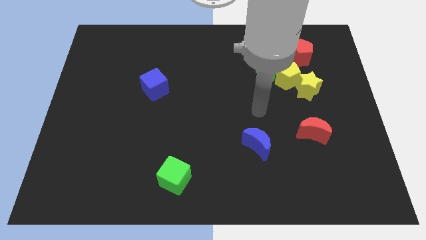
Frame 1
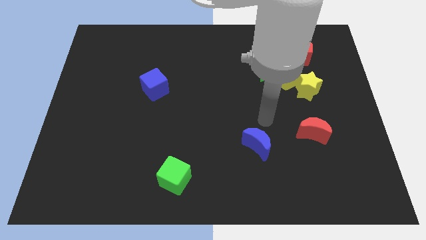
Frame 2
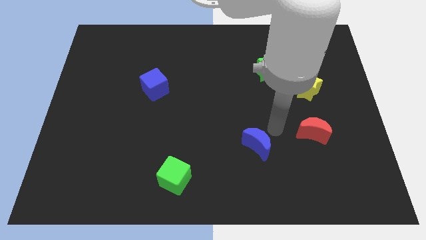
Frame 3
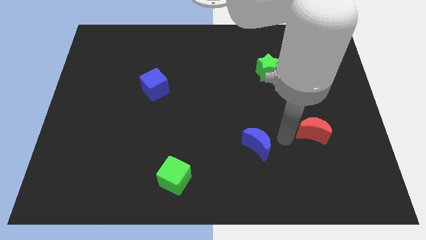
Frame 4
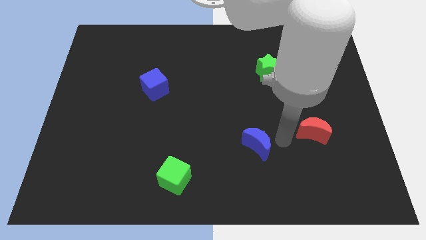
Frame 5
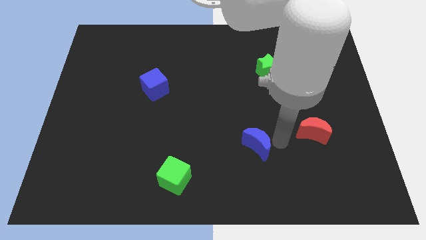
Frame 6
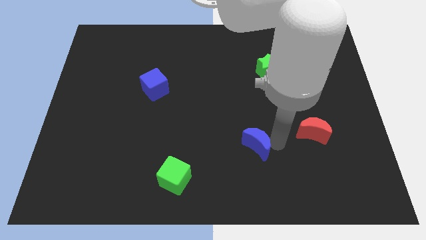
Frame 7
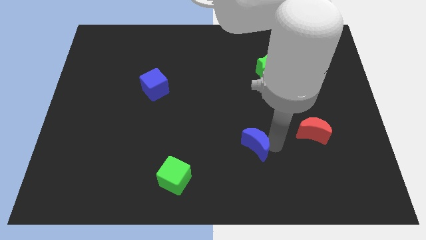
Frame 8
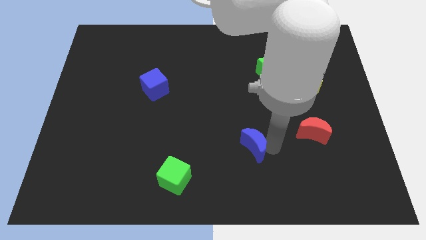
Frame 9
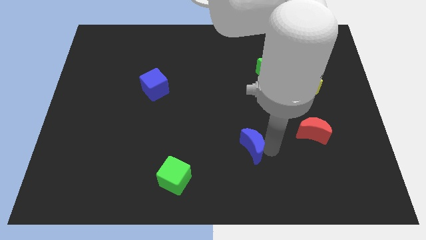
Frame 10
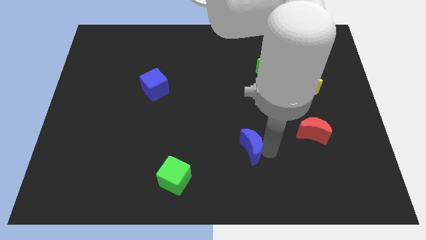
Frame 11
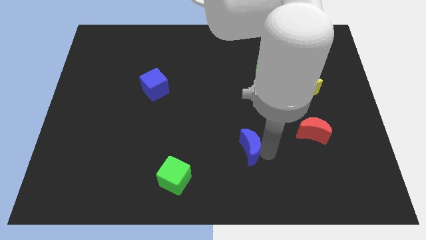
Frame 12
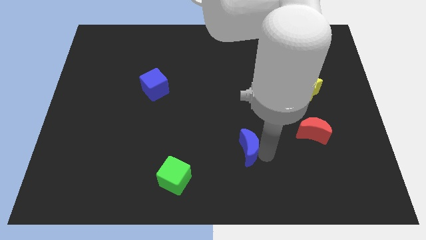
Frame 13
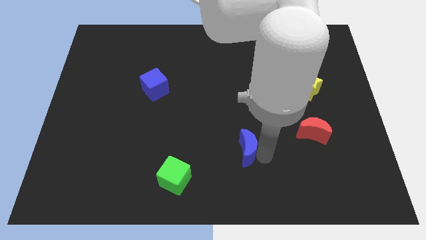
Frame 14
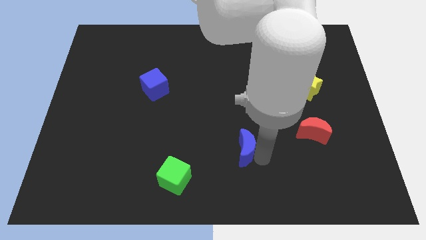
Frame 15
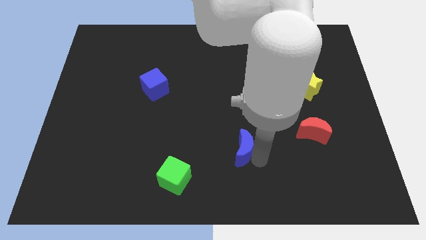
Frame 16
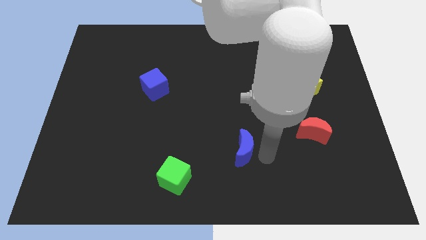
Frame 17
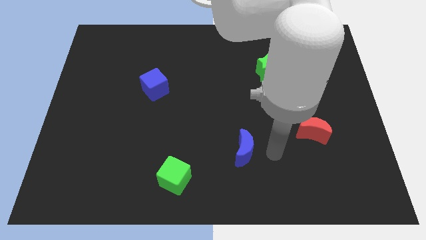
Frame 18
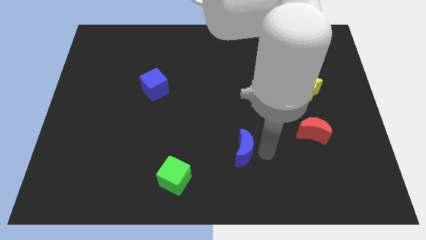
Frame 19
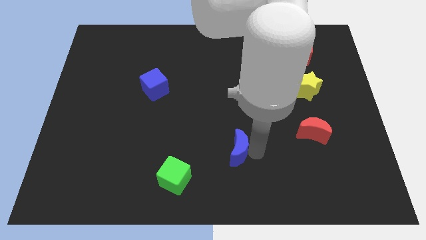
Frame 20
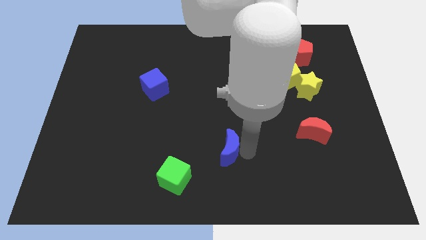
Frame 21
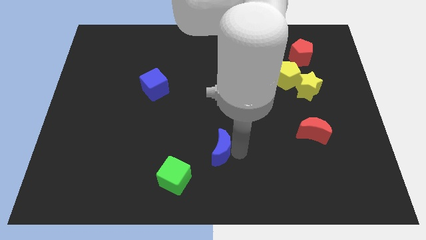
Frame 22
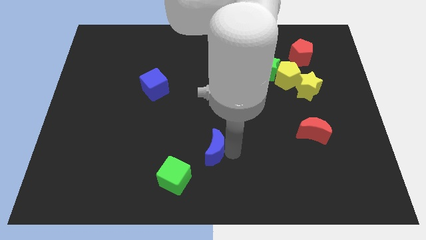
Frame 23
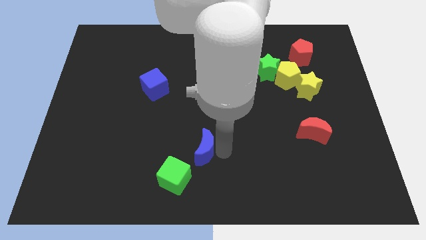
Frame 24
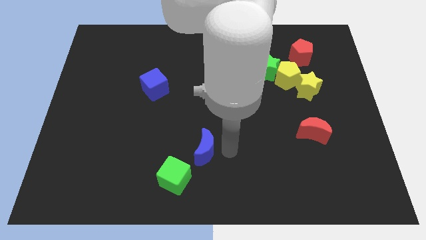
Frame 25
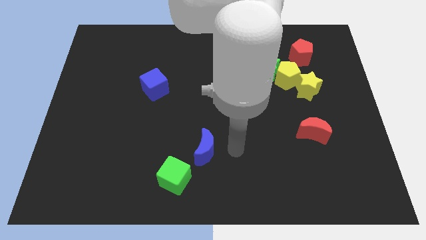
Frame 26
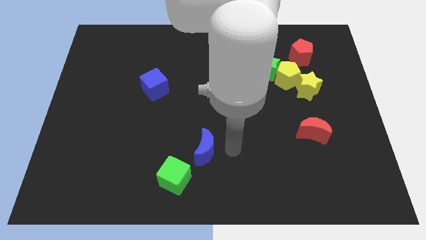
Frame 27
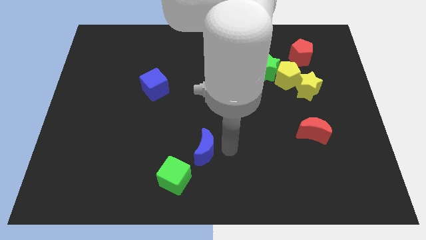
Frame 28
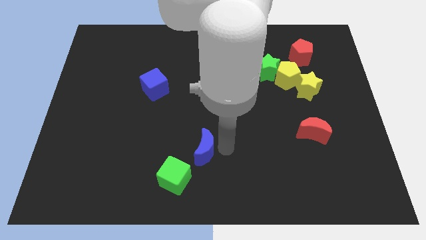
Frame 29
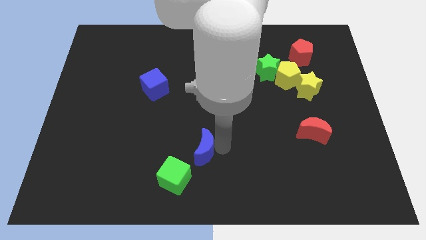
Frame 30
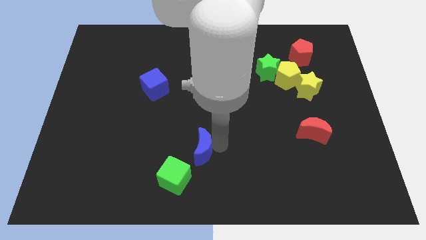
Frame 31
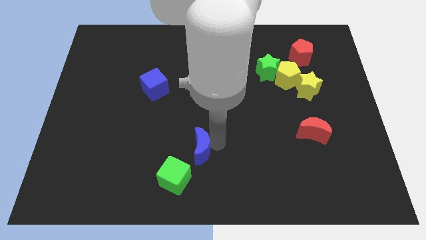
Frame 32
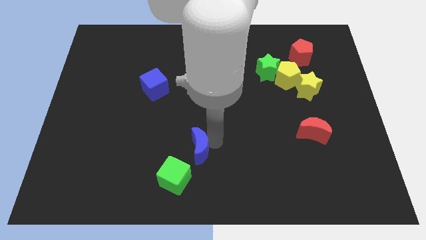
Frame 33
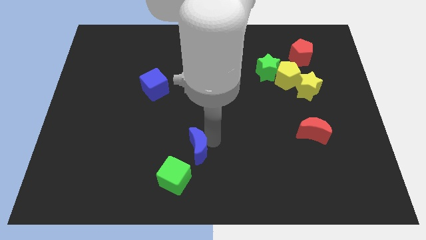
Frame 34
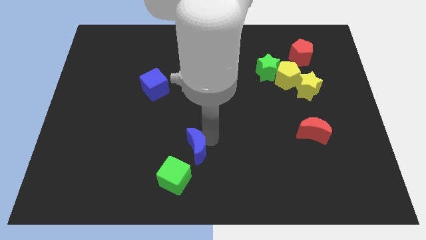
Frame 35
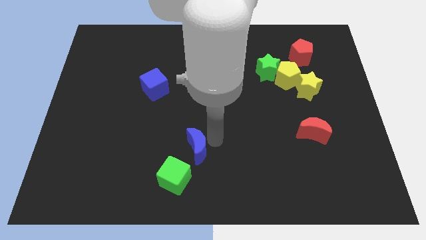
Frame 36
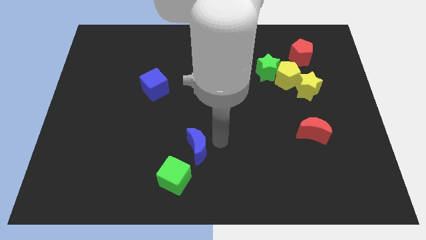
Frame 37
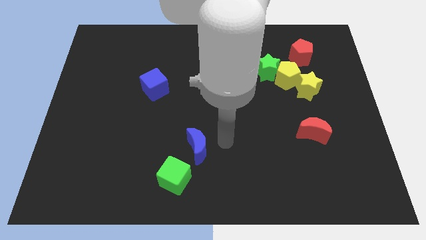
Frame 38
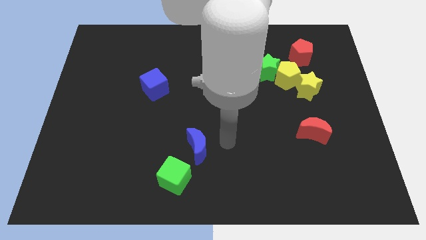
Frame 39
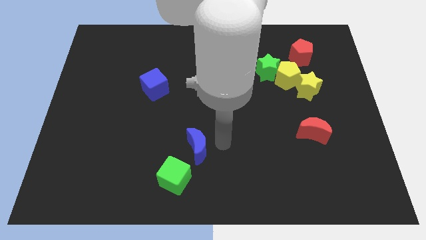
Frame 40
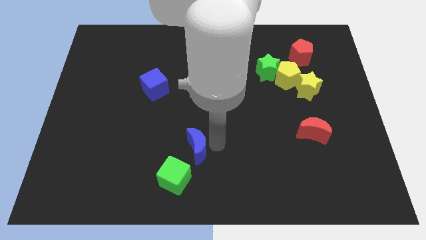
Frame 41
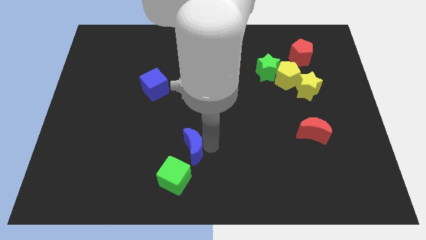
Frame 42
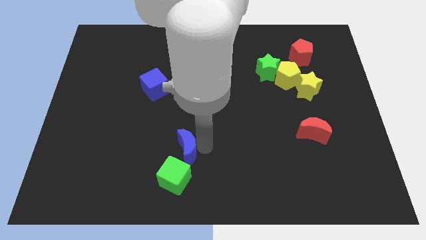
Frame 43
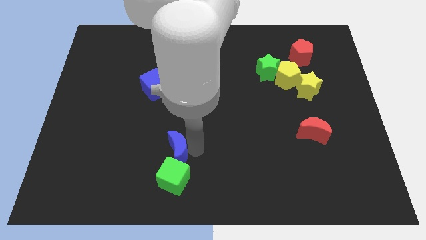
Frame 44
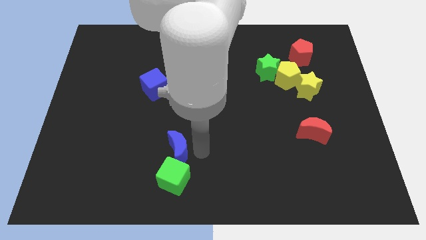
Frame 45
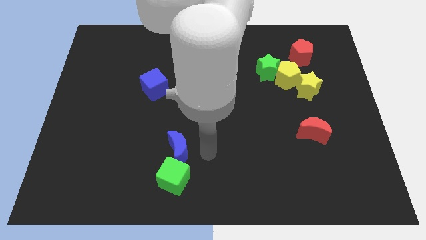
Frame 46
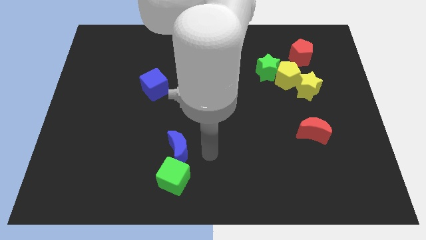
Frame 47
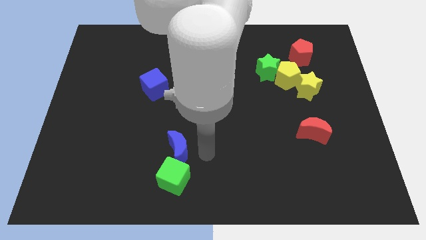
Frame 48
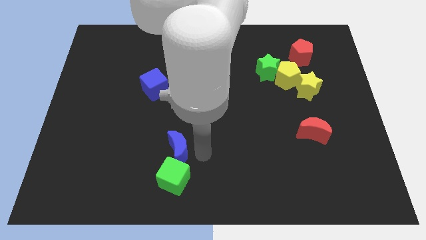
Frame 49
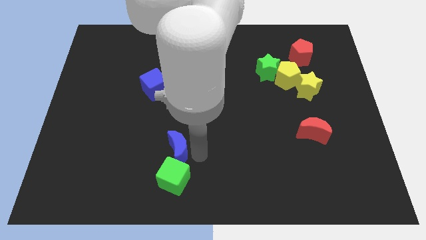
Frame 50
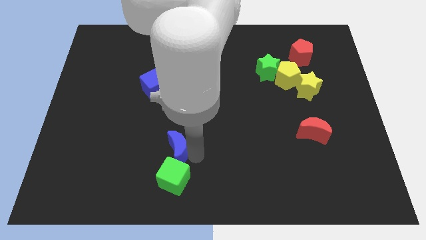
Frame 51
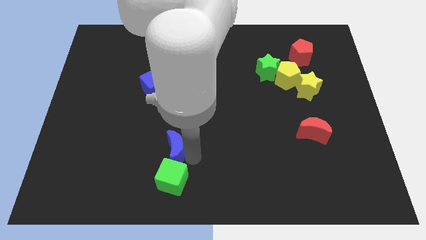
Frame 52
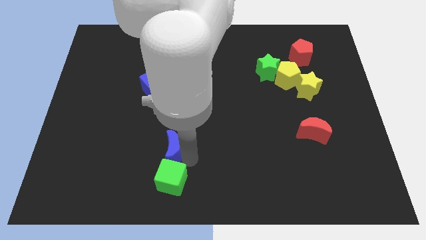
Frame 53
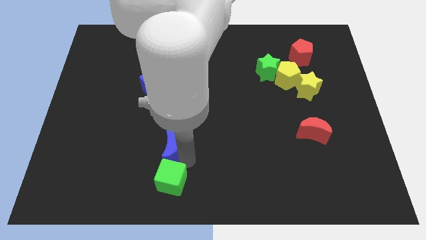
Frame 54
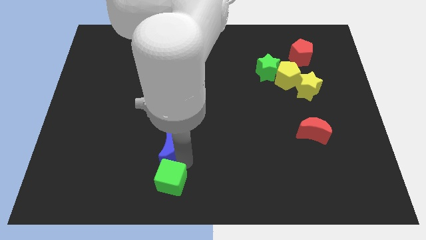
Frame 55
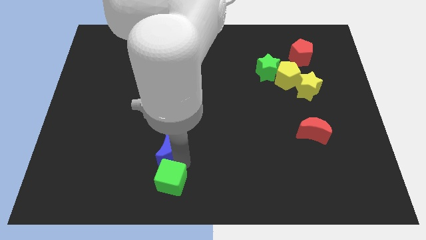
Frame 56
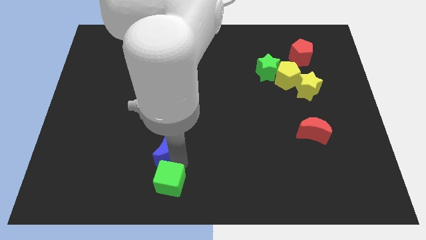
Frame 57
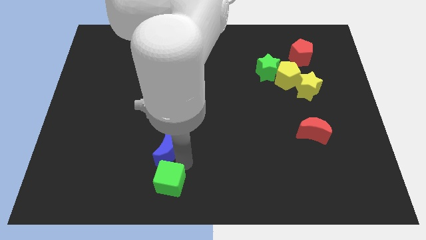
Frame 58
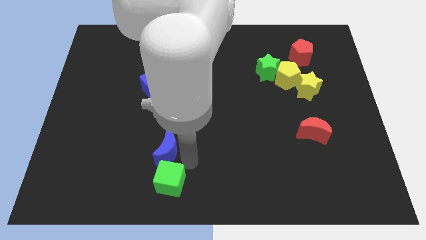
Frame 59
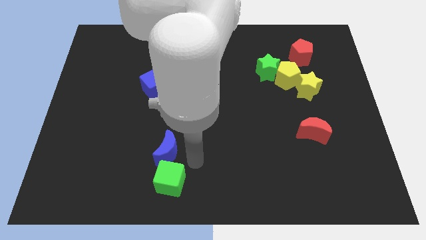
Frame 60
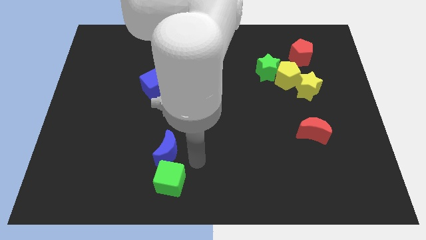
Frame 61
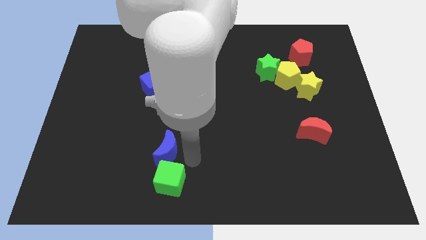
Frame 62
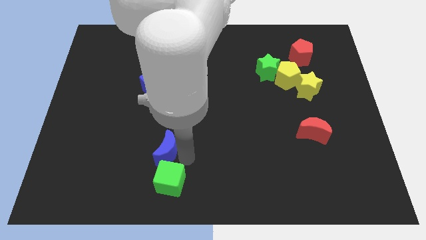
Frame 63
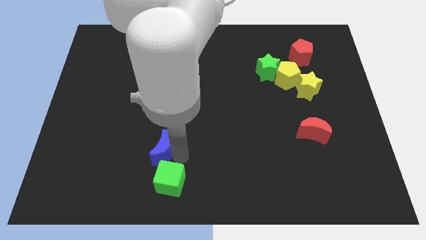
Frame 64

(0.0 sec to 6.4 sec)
move the blue moon left

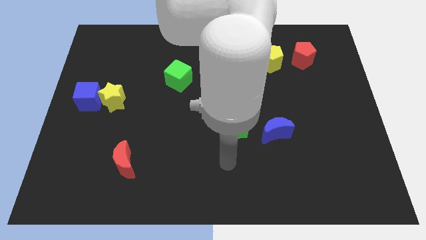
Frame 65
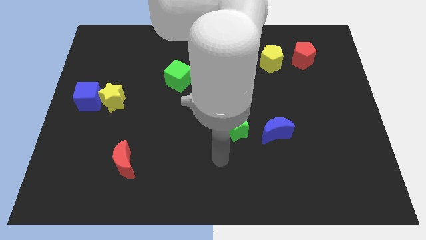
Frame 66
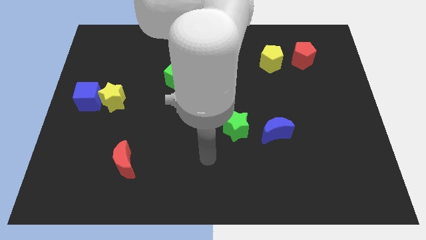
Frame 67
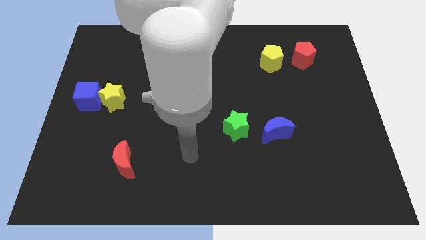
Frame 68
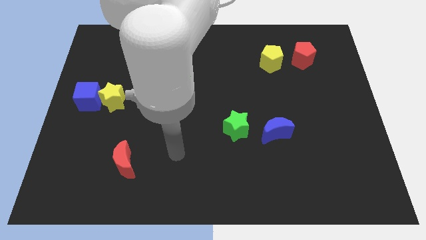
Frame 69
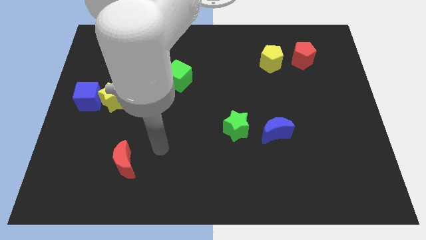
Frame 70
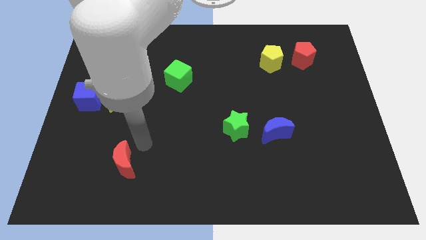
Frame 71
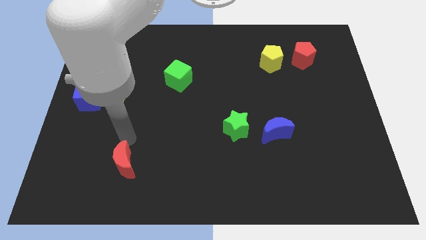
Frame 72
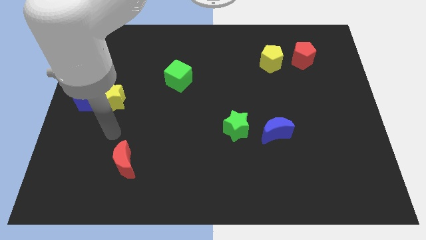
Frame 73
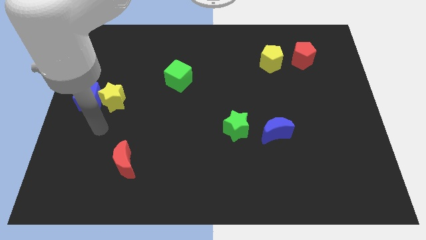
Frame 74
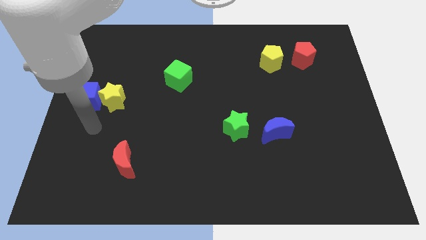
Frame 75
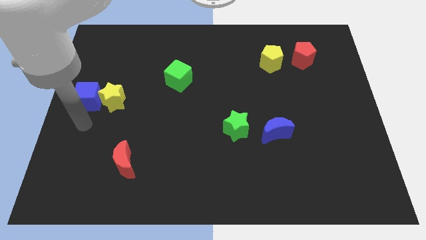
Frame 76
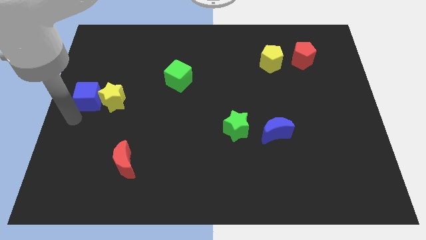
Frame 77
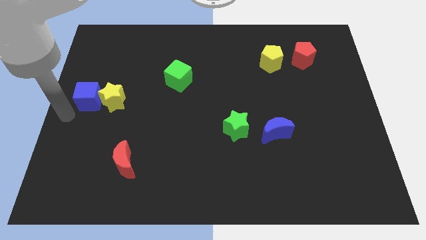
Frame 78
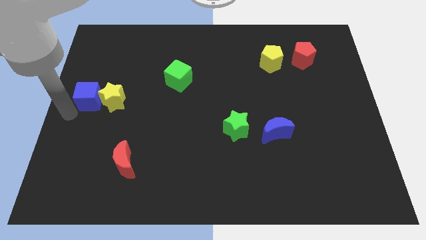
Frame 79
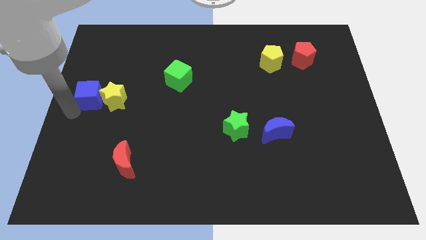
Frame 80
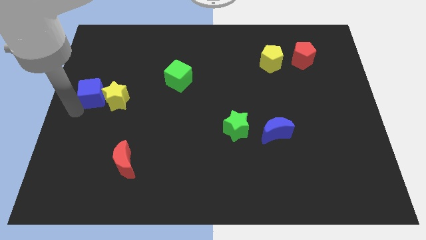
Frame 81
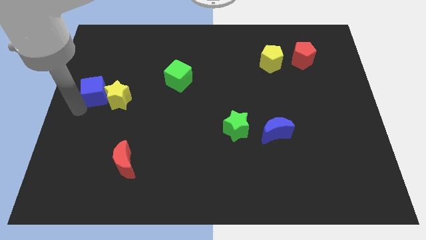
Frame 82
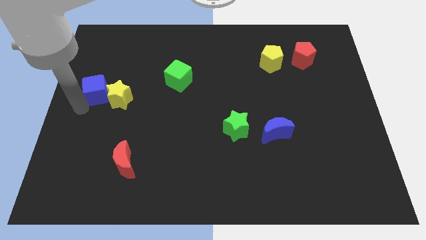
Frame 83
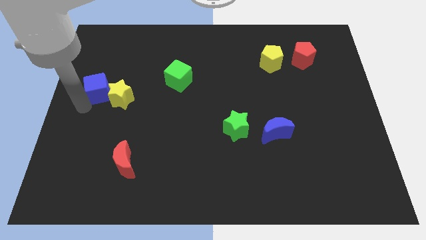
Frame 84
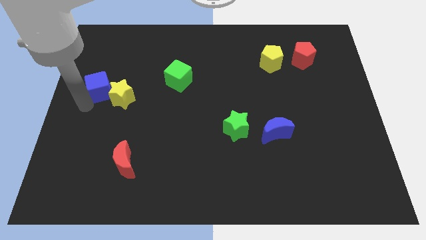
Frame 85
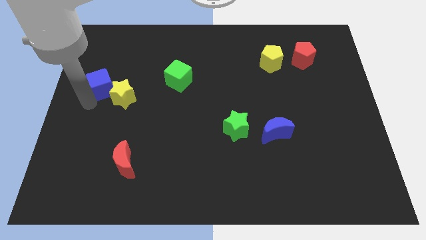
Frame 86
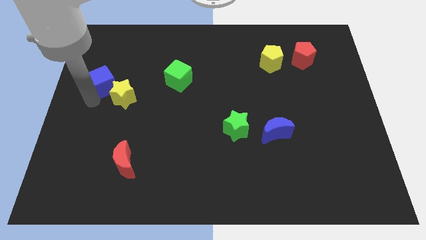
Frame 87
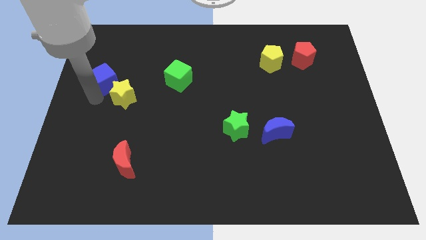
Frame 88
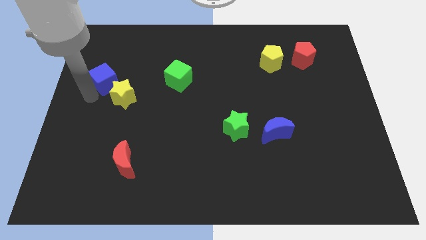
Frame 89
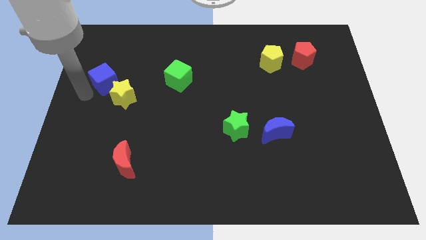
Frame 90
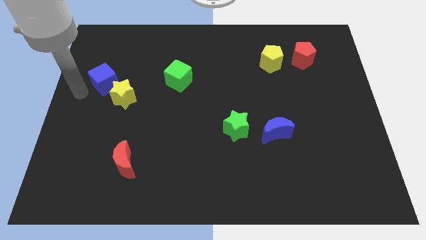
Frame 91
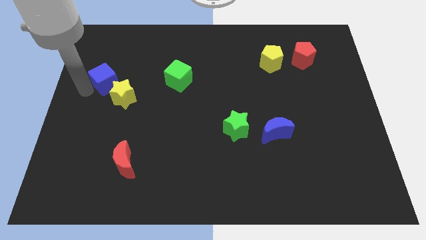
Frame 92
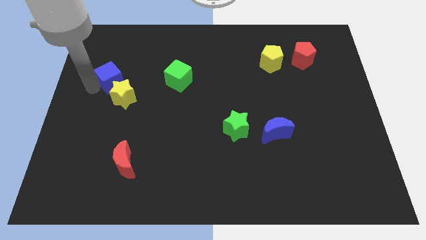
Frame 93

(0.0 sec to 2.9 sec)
move the blue cube up and to the right somewhat
